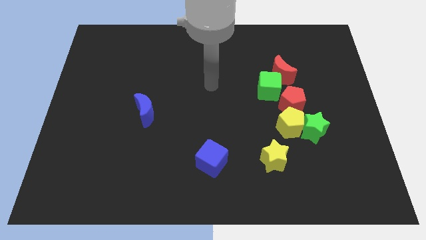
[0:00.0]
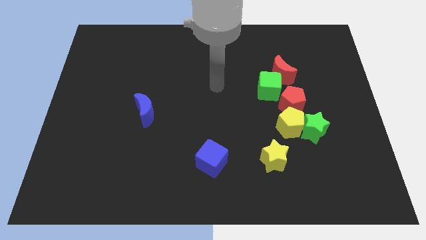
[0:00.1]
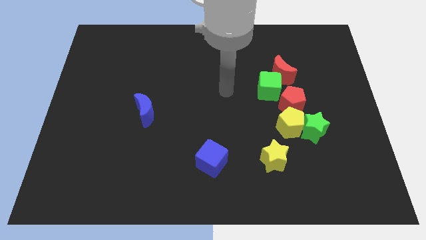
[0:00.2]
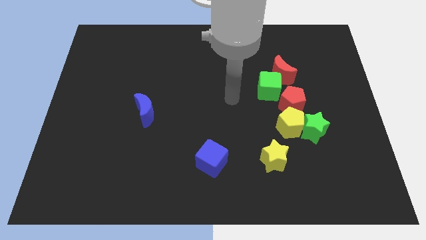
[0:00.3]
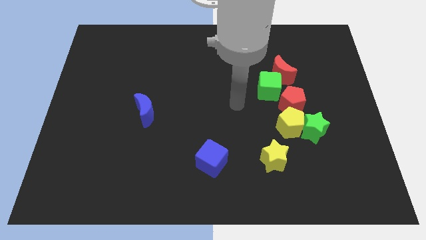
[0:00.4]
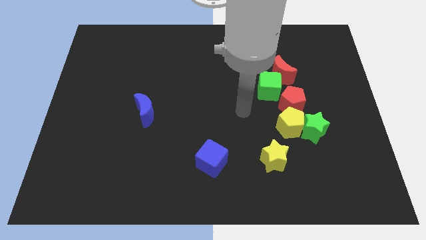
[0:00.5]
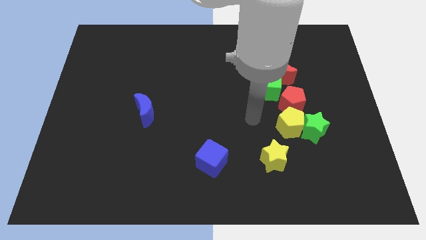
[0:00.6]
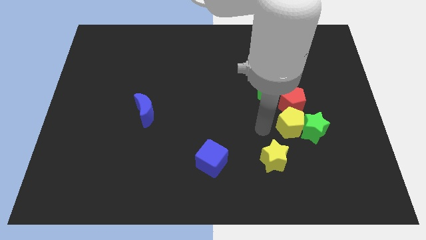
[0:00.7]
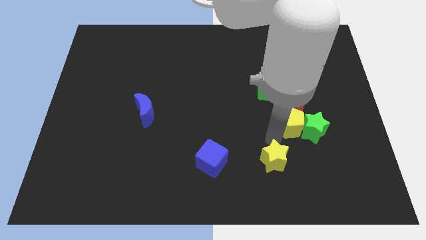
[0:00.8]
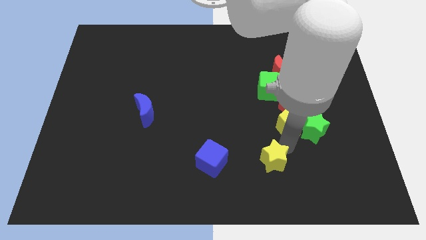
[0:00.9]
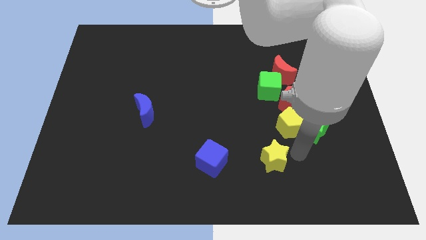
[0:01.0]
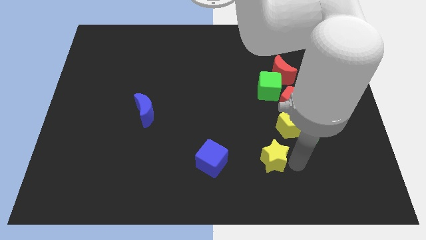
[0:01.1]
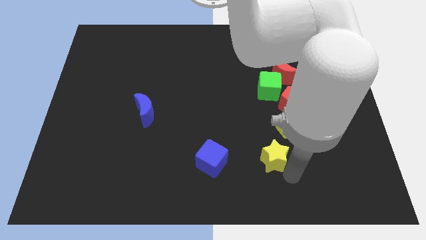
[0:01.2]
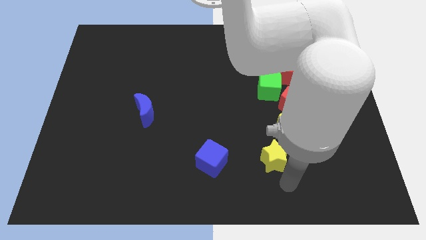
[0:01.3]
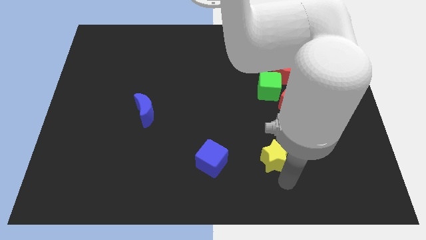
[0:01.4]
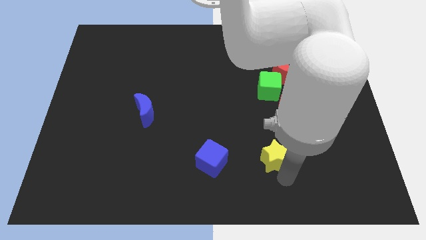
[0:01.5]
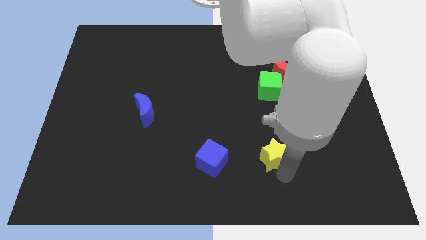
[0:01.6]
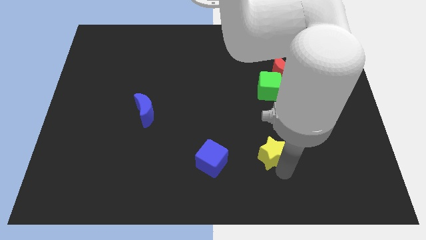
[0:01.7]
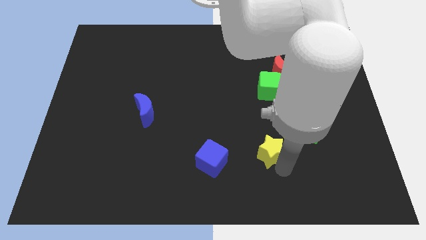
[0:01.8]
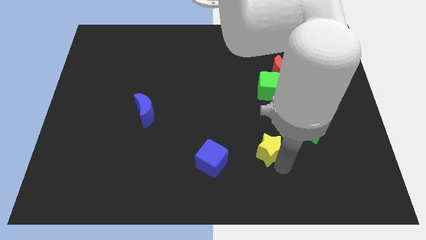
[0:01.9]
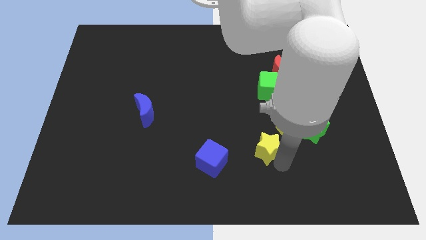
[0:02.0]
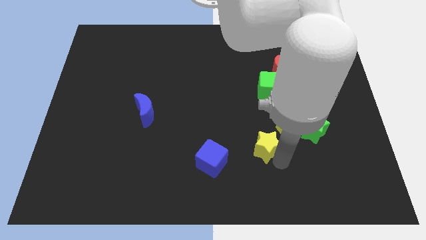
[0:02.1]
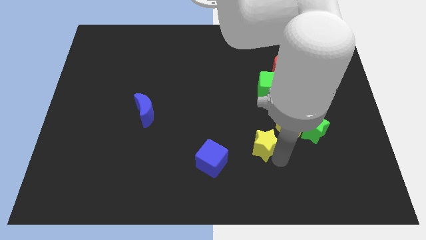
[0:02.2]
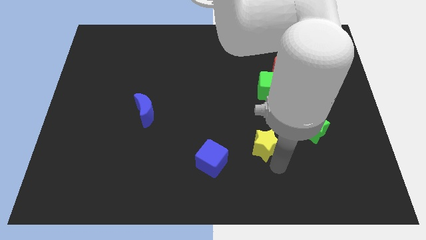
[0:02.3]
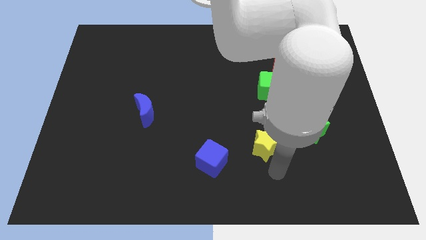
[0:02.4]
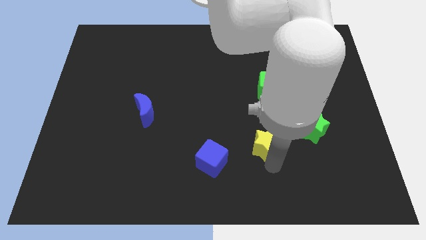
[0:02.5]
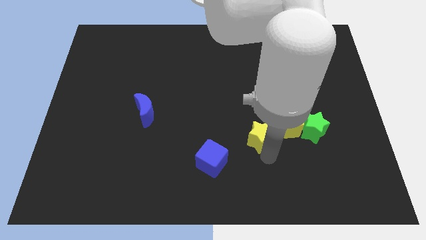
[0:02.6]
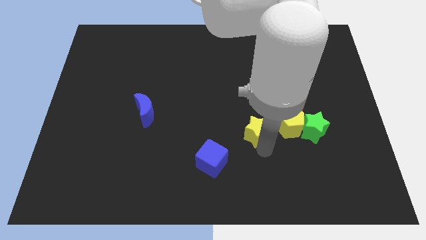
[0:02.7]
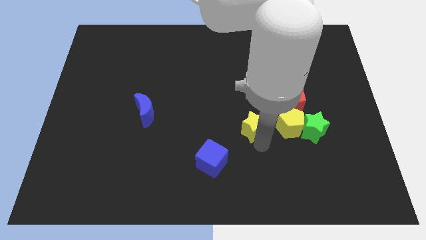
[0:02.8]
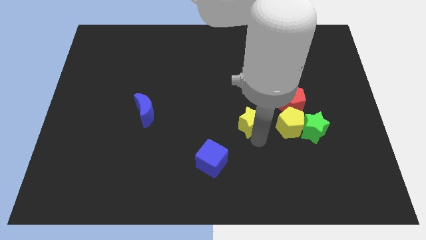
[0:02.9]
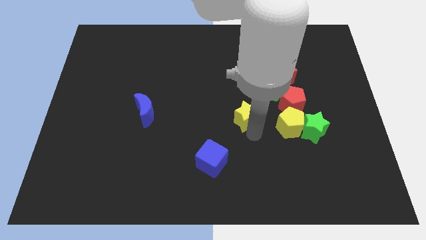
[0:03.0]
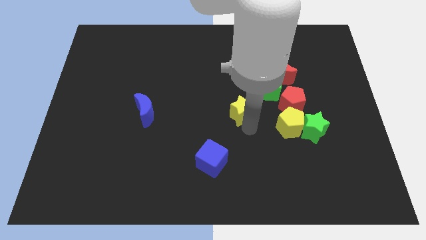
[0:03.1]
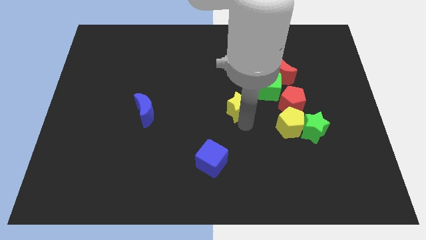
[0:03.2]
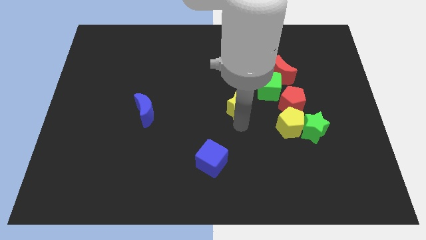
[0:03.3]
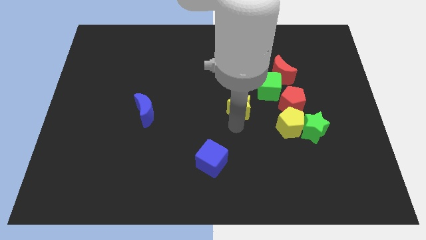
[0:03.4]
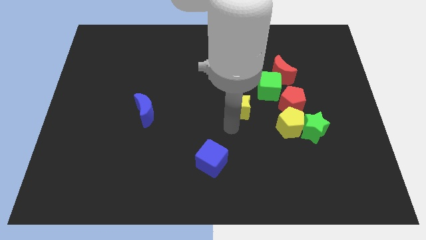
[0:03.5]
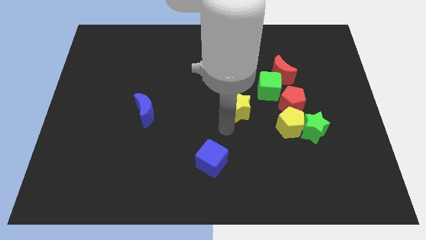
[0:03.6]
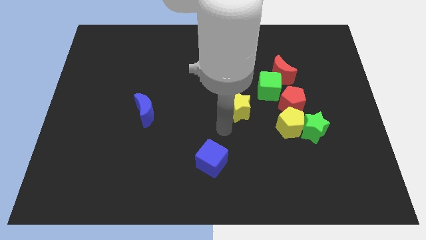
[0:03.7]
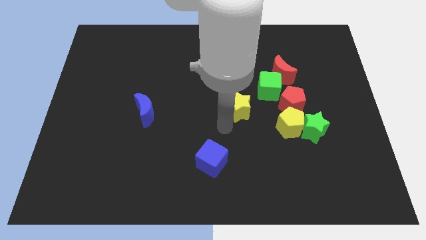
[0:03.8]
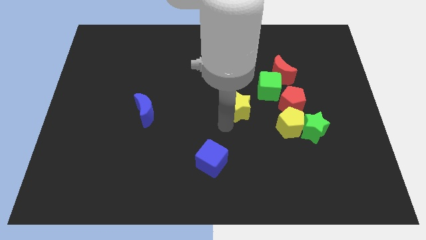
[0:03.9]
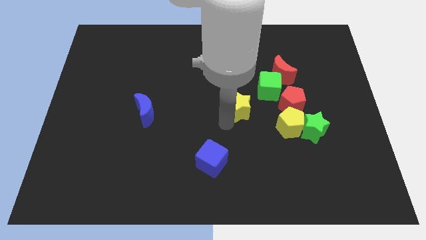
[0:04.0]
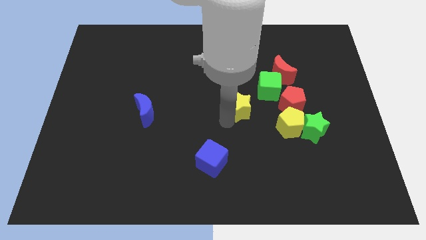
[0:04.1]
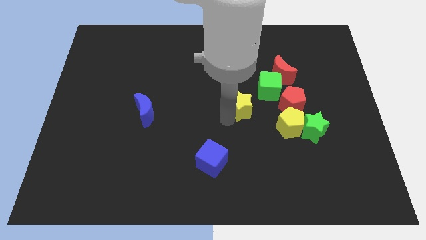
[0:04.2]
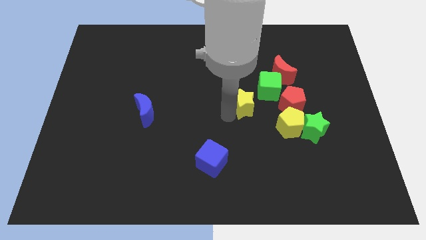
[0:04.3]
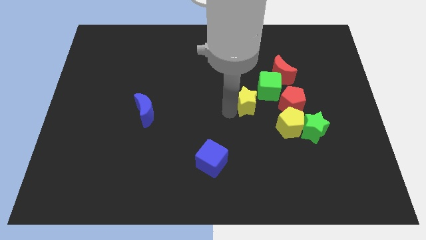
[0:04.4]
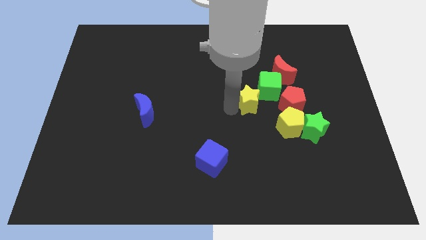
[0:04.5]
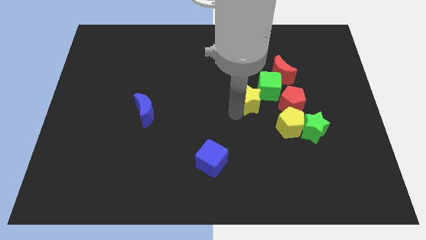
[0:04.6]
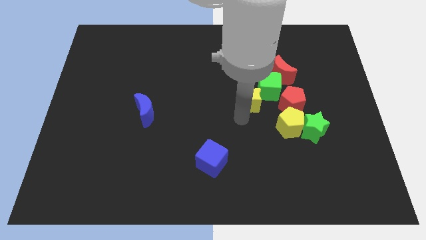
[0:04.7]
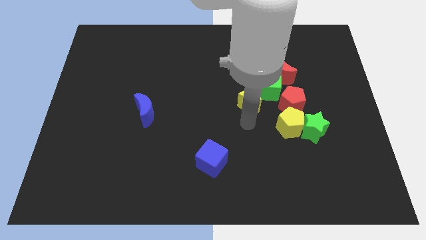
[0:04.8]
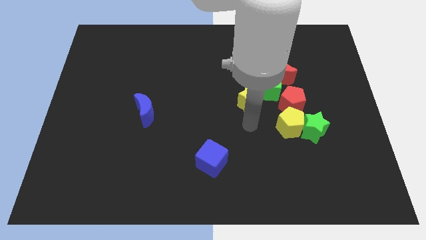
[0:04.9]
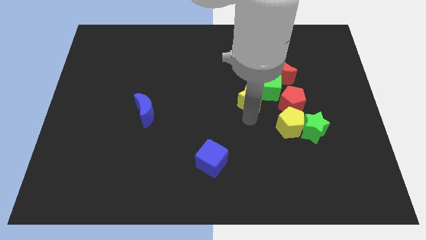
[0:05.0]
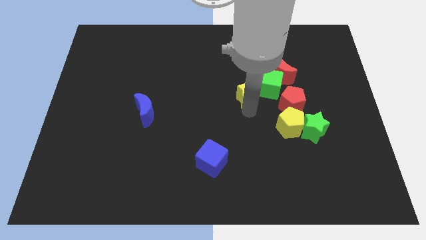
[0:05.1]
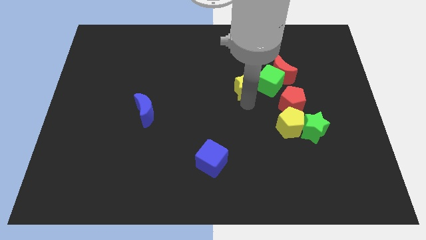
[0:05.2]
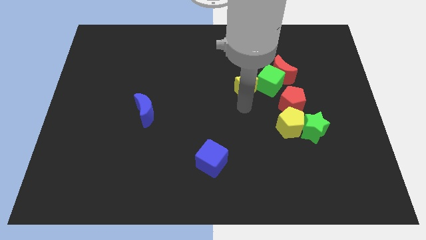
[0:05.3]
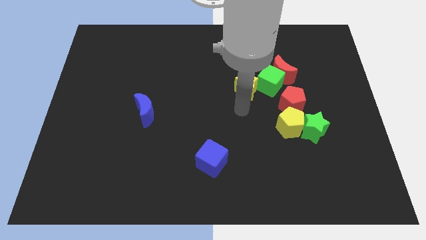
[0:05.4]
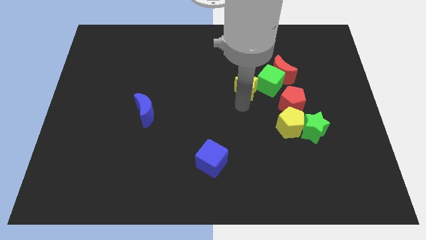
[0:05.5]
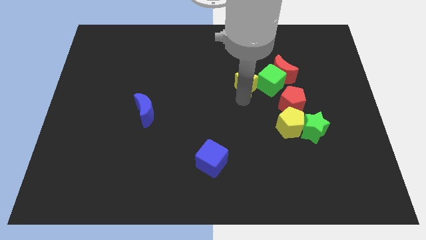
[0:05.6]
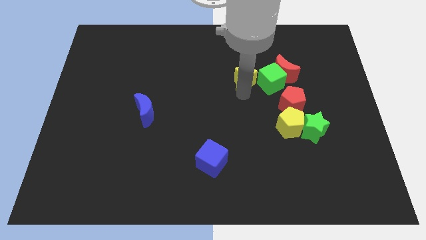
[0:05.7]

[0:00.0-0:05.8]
put the yellow star to the top left side of the green cube

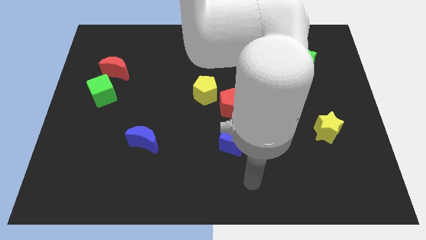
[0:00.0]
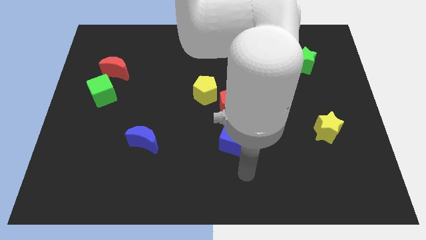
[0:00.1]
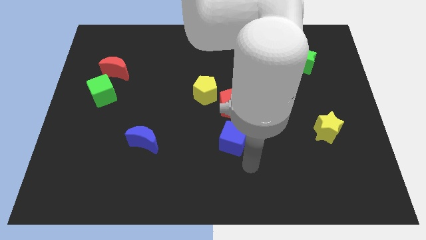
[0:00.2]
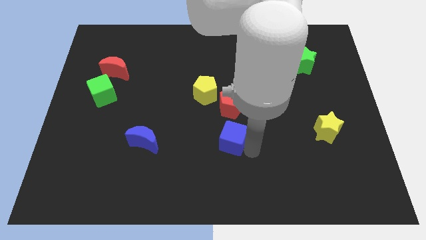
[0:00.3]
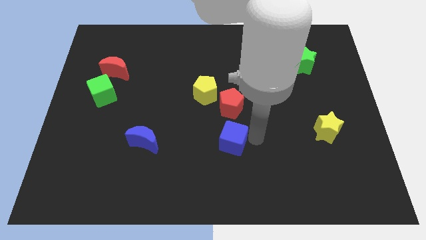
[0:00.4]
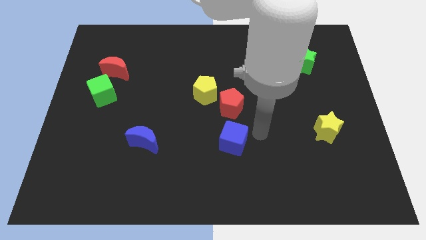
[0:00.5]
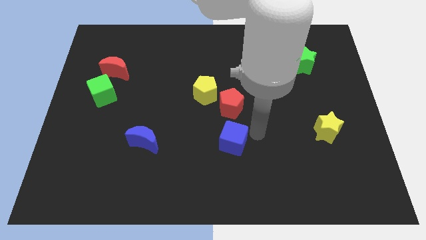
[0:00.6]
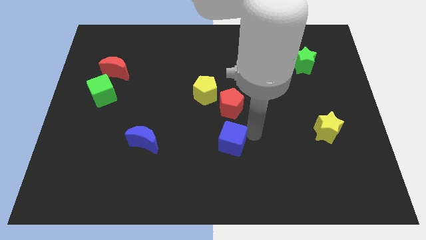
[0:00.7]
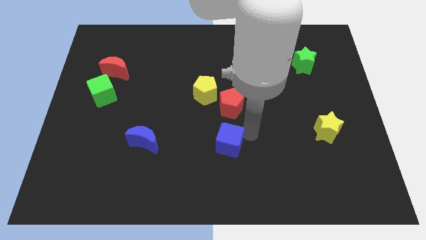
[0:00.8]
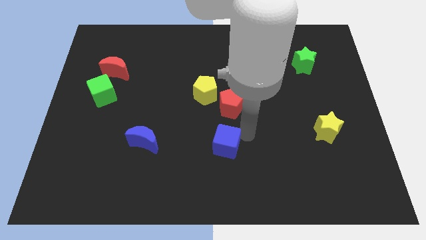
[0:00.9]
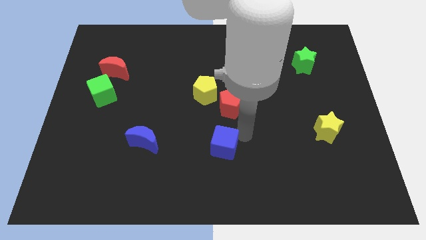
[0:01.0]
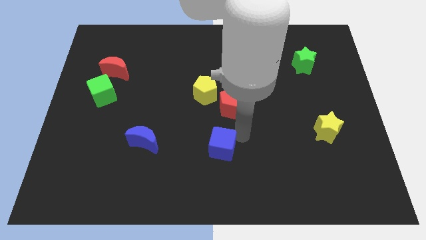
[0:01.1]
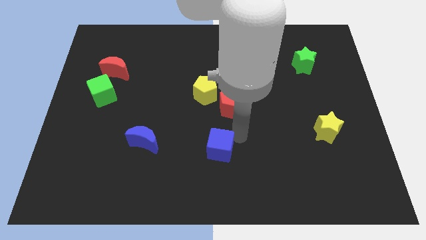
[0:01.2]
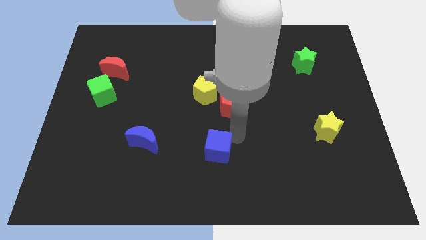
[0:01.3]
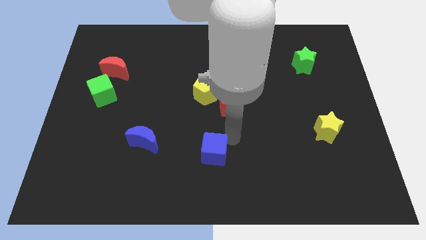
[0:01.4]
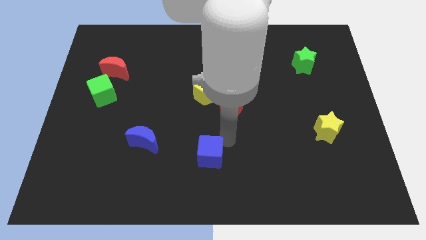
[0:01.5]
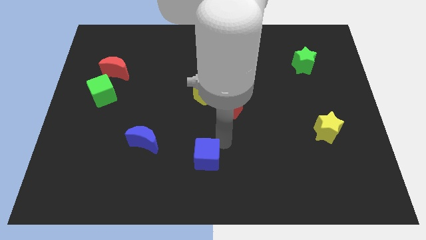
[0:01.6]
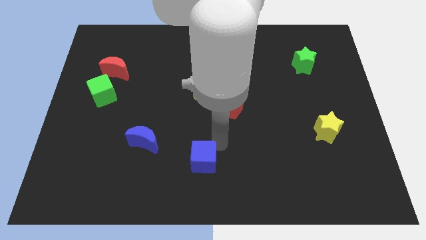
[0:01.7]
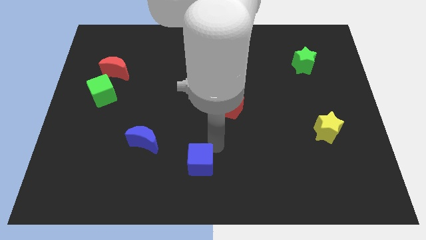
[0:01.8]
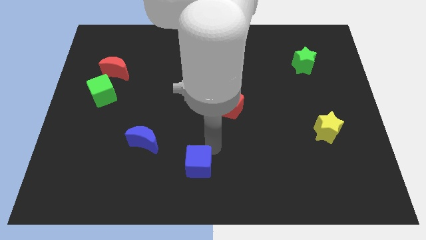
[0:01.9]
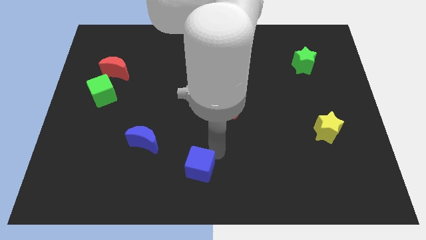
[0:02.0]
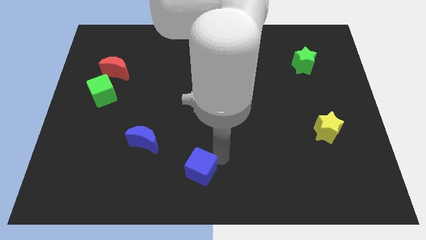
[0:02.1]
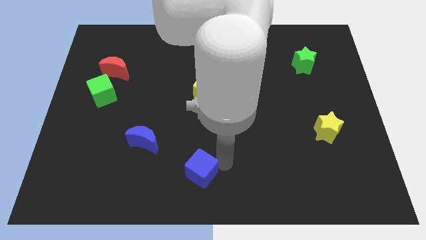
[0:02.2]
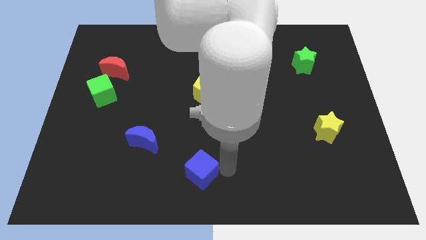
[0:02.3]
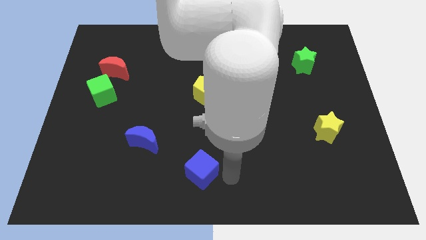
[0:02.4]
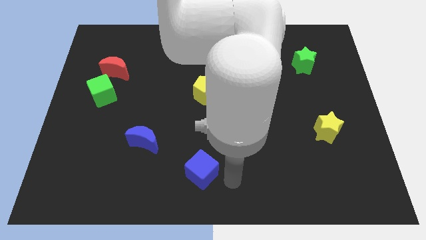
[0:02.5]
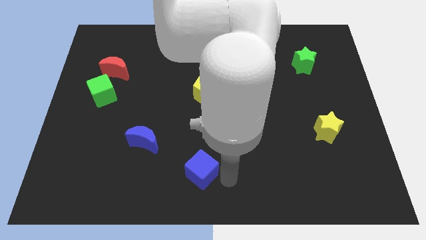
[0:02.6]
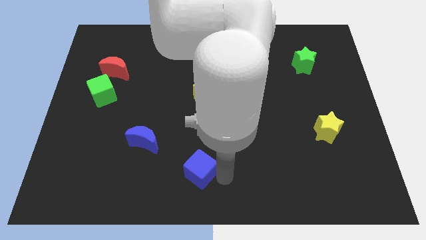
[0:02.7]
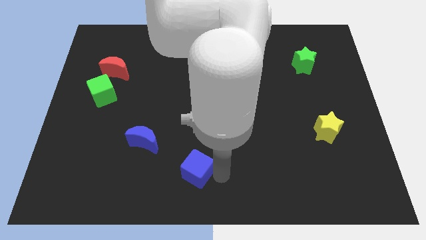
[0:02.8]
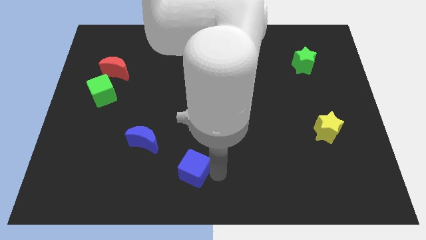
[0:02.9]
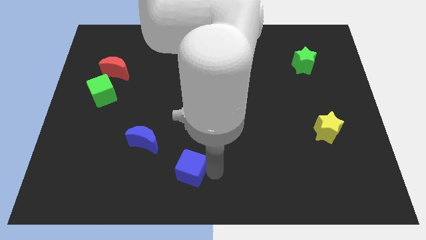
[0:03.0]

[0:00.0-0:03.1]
move the blue cube to the bottom right side of the blue moon
